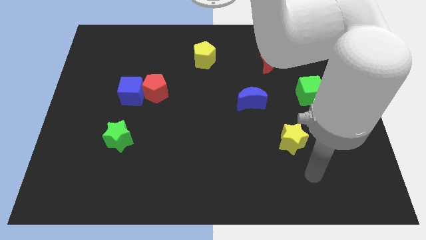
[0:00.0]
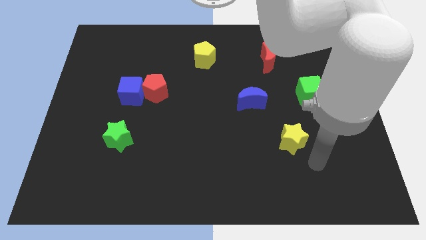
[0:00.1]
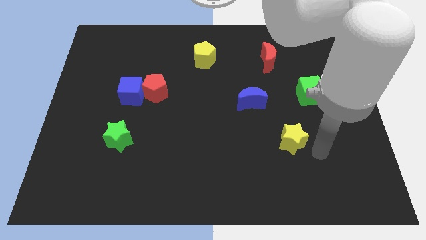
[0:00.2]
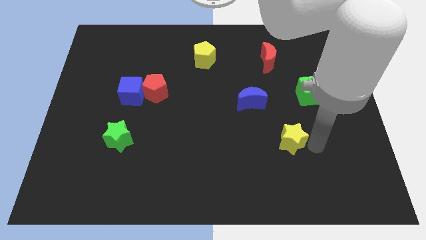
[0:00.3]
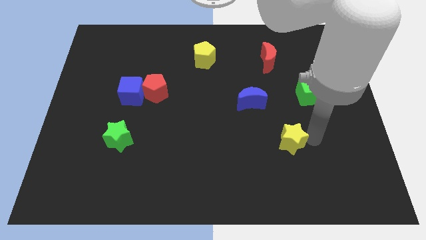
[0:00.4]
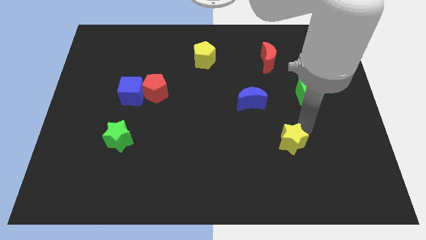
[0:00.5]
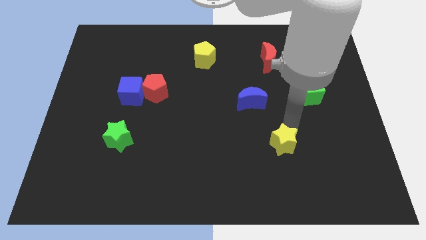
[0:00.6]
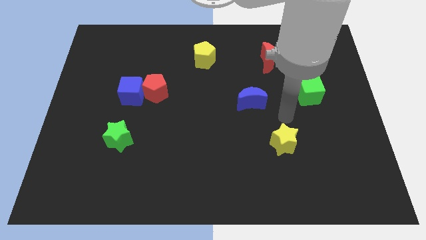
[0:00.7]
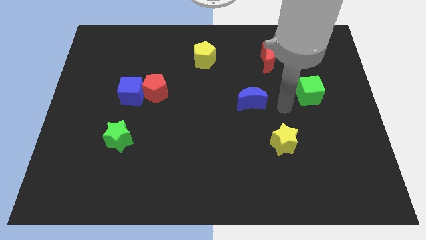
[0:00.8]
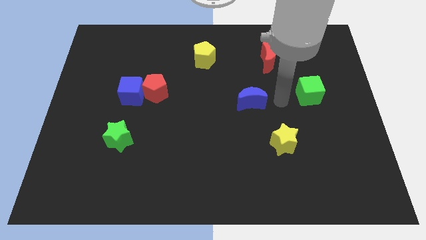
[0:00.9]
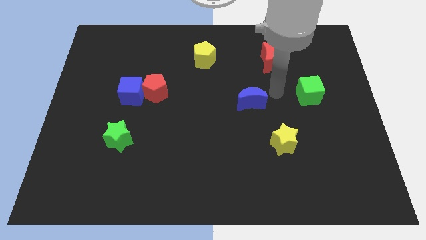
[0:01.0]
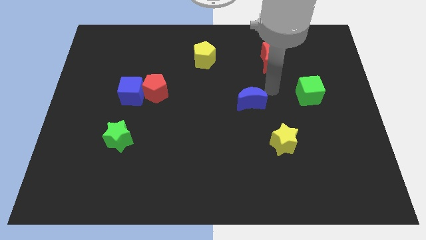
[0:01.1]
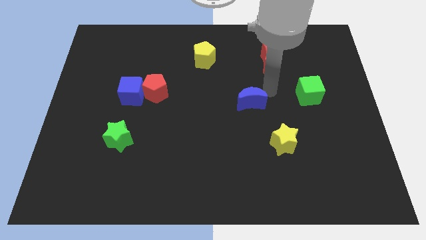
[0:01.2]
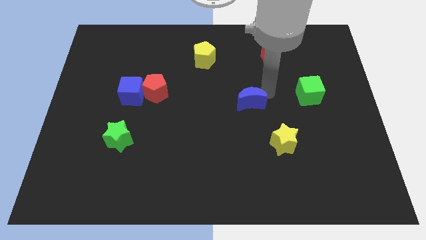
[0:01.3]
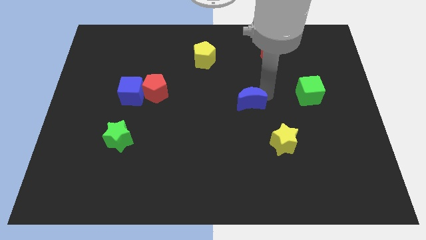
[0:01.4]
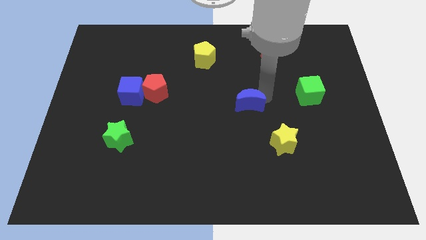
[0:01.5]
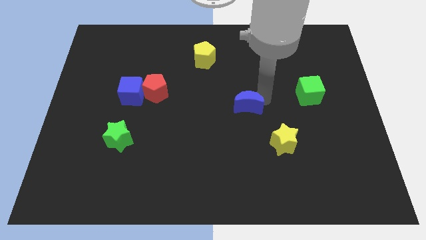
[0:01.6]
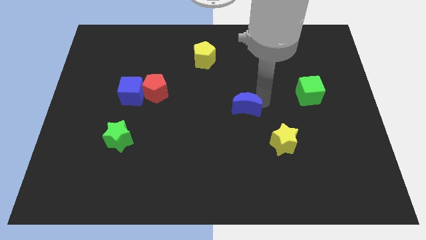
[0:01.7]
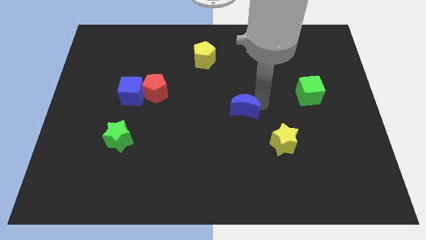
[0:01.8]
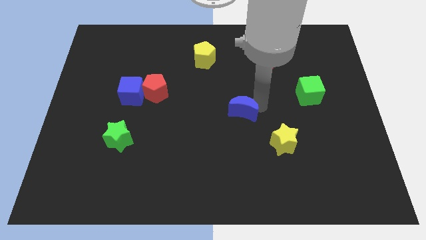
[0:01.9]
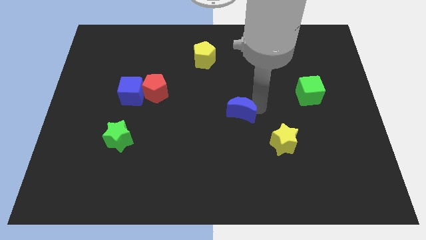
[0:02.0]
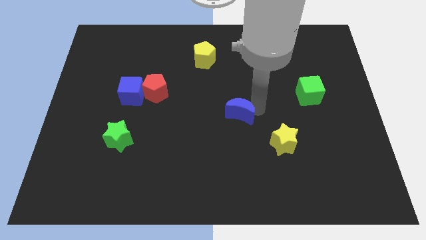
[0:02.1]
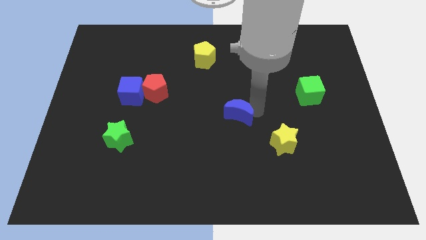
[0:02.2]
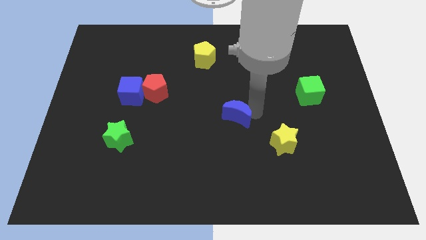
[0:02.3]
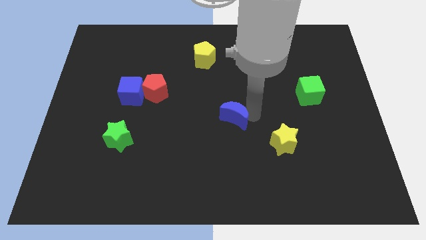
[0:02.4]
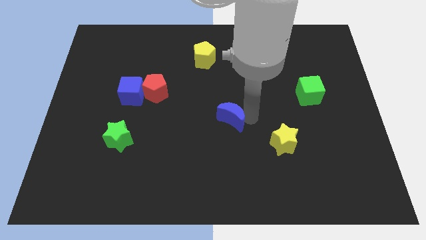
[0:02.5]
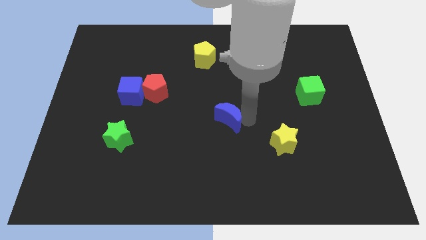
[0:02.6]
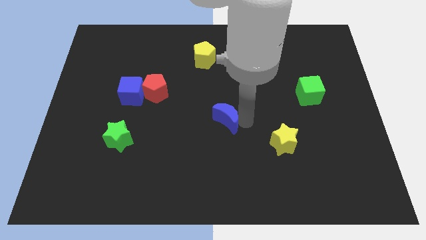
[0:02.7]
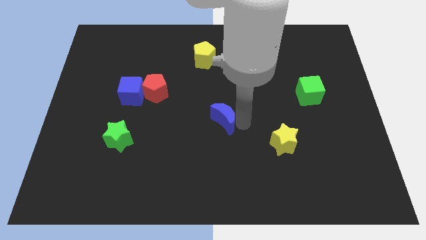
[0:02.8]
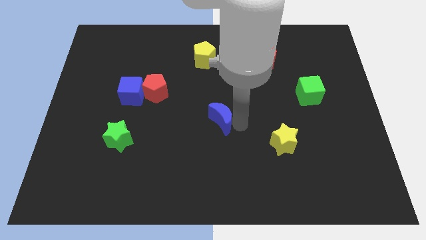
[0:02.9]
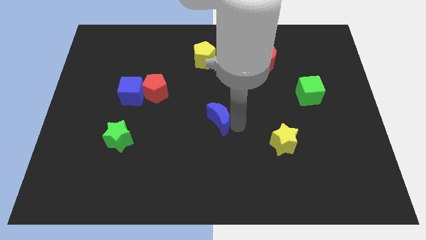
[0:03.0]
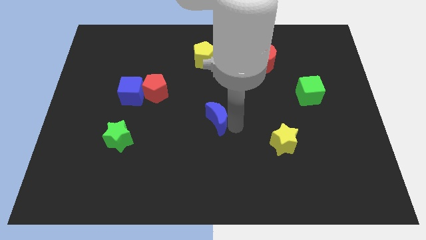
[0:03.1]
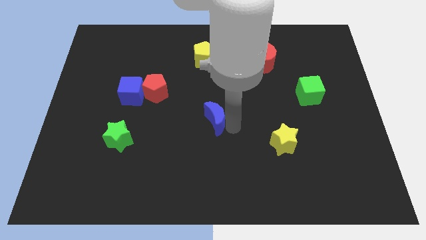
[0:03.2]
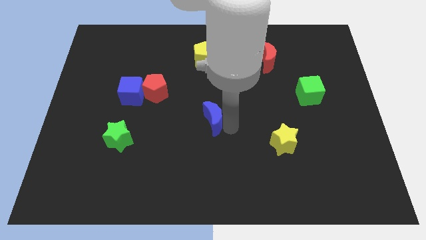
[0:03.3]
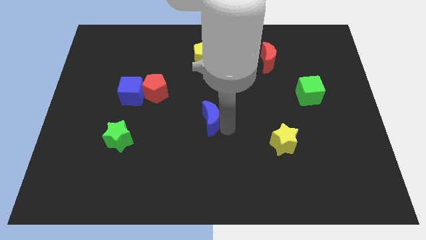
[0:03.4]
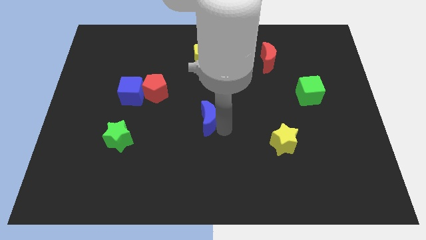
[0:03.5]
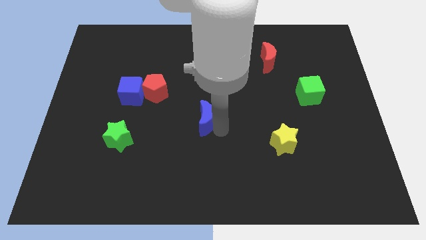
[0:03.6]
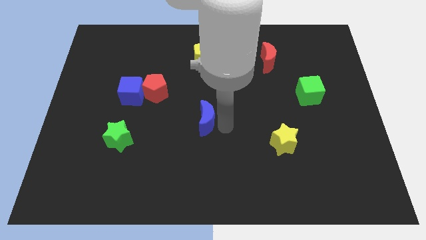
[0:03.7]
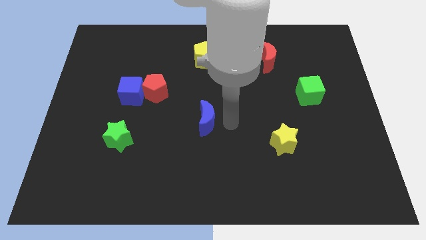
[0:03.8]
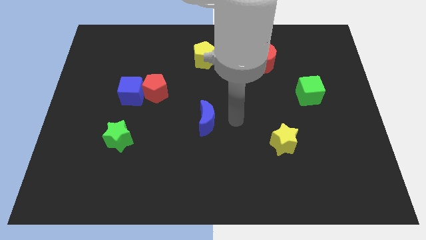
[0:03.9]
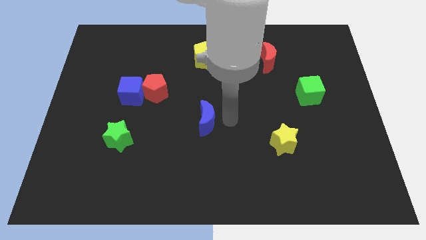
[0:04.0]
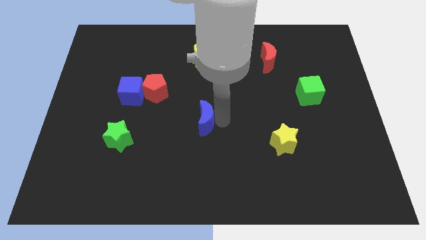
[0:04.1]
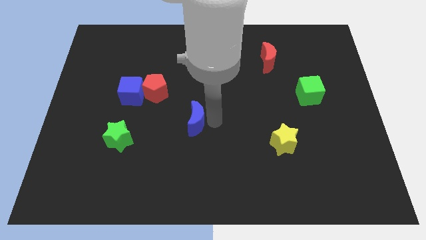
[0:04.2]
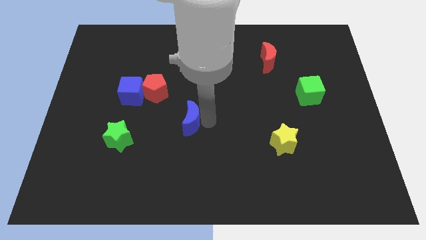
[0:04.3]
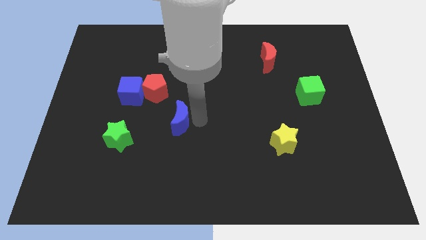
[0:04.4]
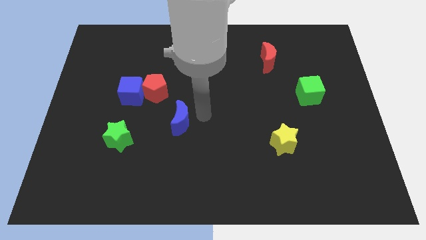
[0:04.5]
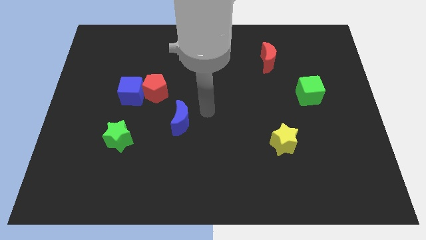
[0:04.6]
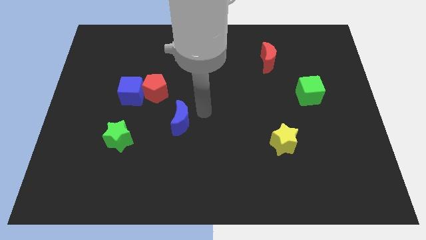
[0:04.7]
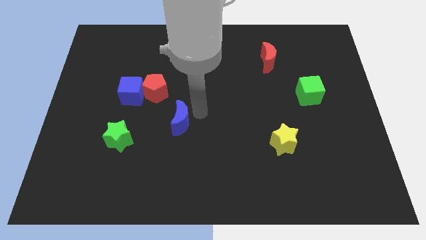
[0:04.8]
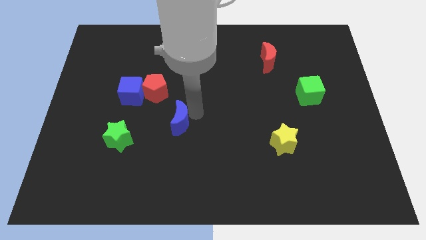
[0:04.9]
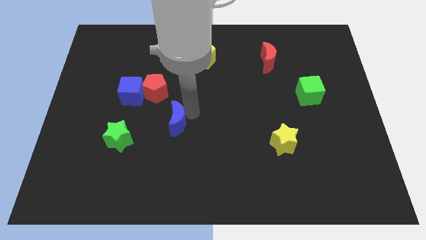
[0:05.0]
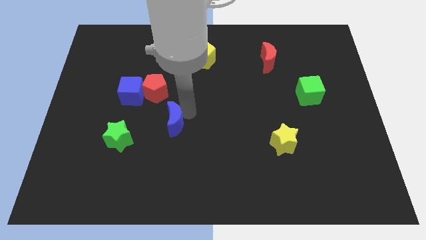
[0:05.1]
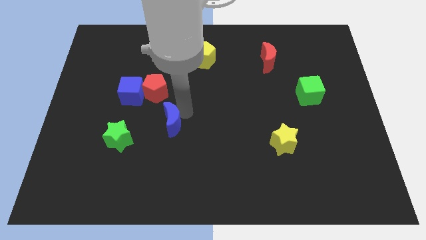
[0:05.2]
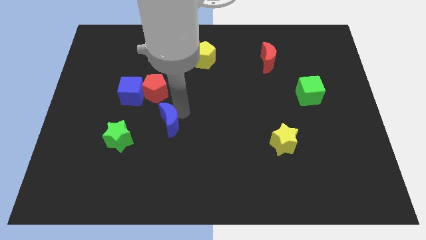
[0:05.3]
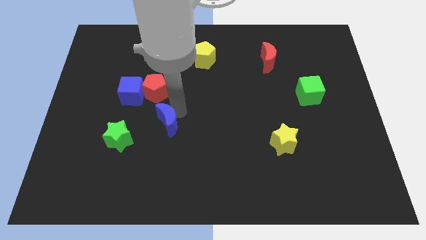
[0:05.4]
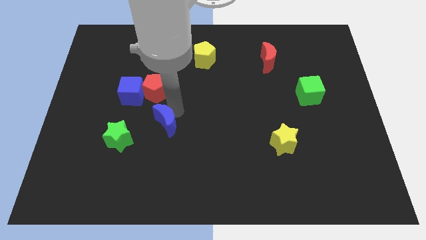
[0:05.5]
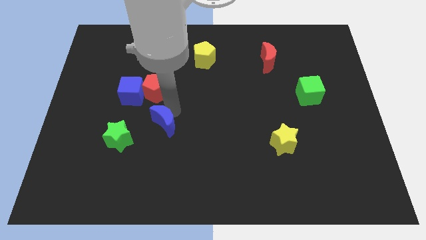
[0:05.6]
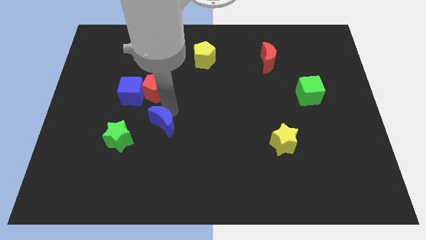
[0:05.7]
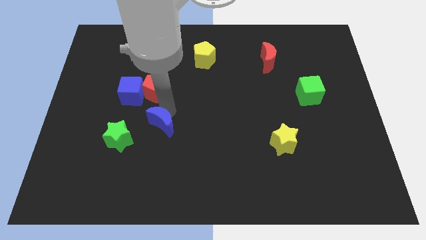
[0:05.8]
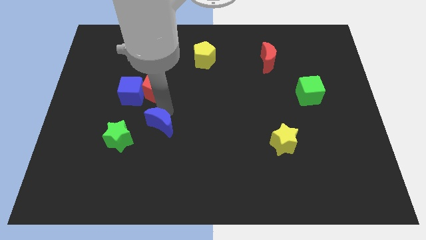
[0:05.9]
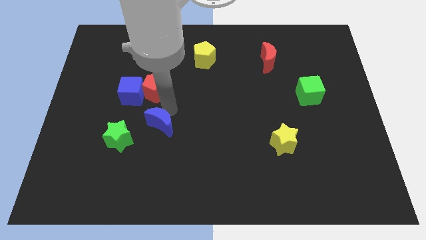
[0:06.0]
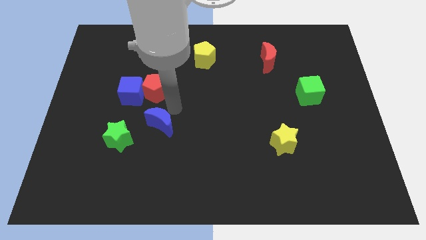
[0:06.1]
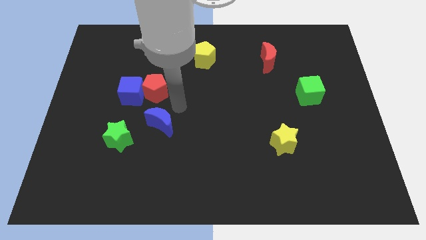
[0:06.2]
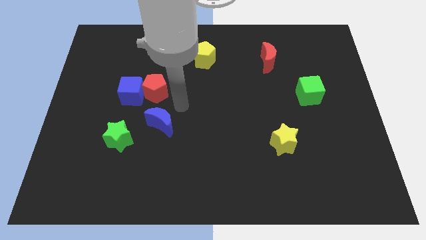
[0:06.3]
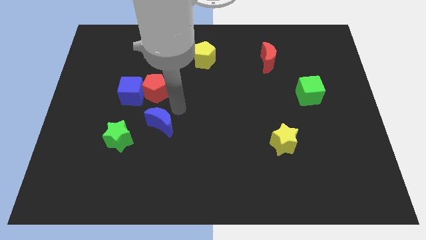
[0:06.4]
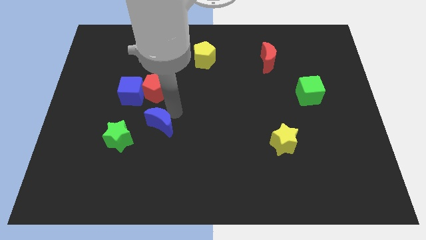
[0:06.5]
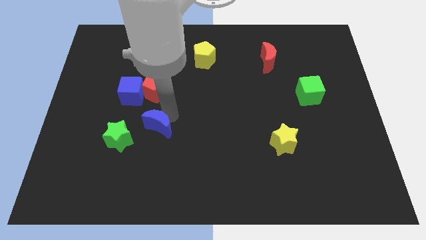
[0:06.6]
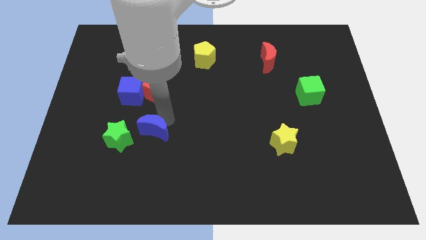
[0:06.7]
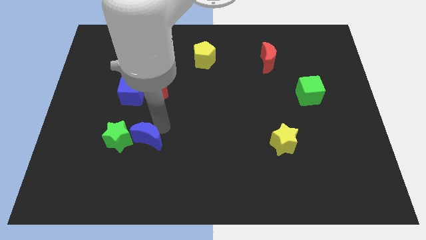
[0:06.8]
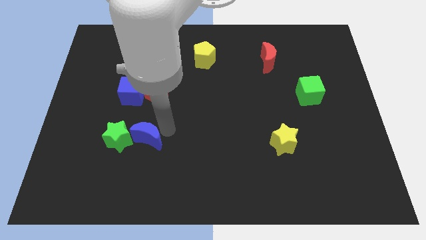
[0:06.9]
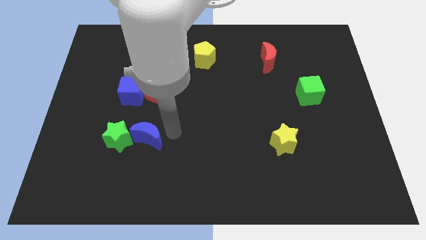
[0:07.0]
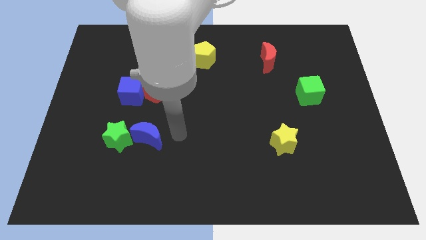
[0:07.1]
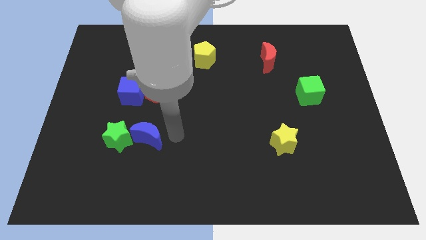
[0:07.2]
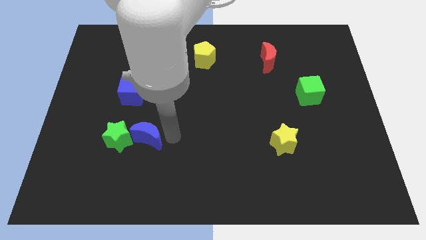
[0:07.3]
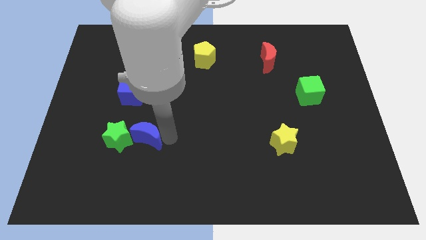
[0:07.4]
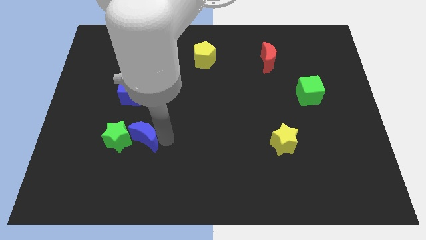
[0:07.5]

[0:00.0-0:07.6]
move the blue moon next to the green star
